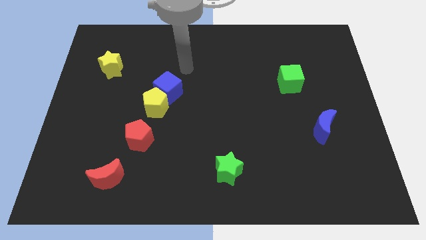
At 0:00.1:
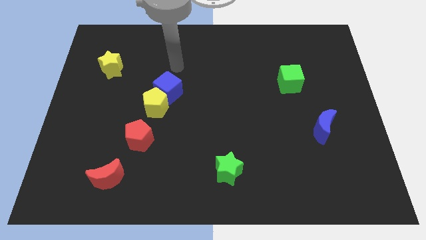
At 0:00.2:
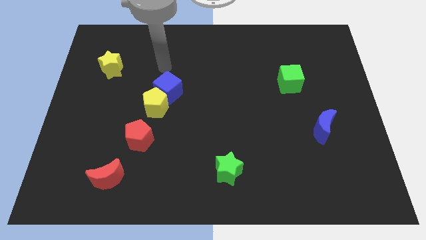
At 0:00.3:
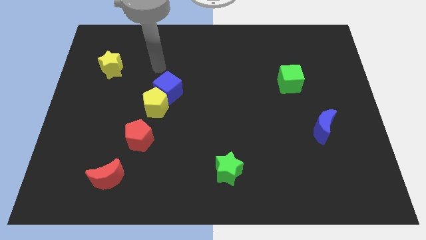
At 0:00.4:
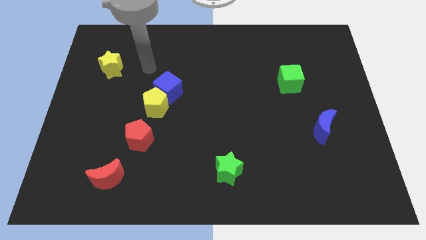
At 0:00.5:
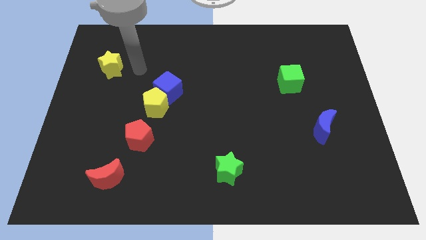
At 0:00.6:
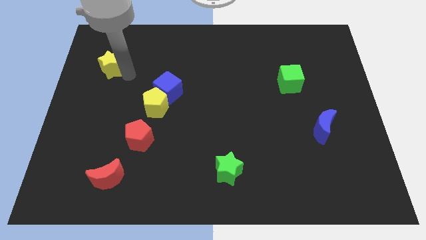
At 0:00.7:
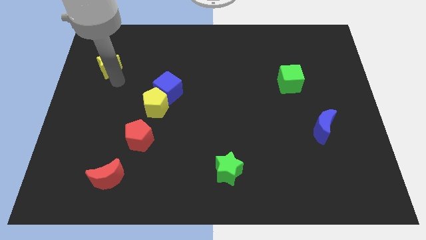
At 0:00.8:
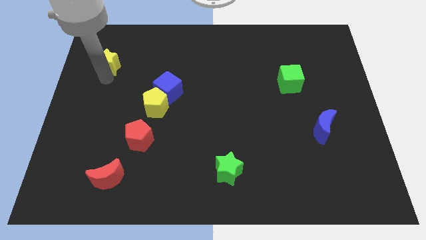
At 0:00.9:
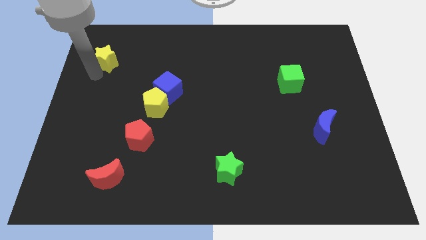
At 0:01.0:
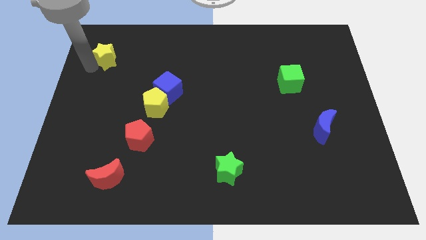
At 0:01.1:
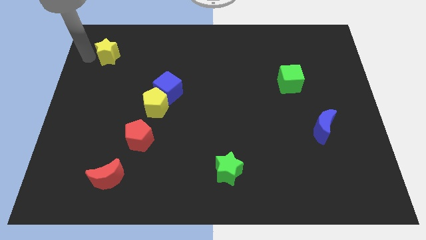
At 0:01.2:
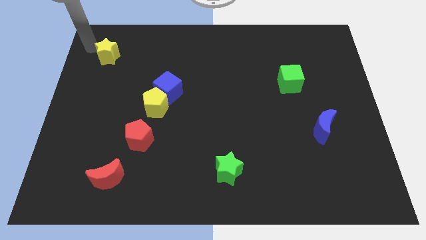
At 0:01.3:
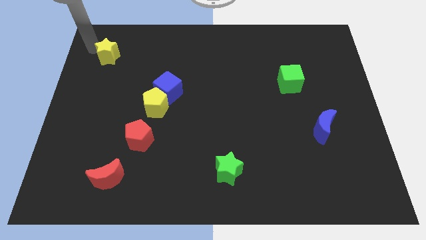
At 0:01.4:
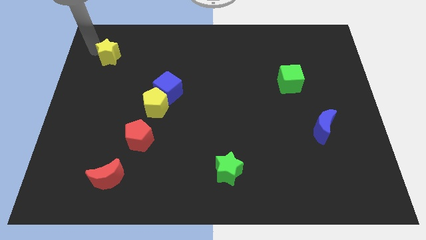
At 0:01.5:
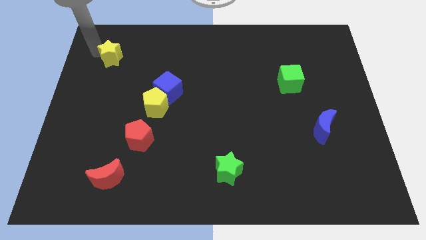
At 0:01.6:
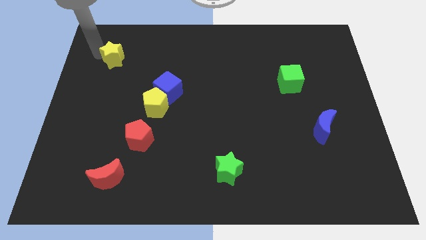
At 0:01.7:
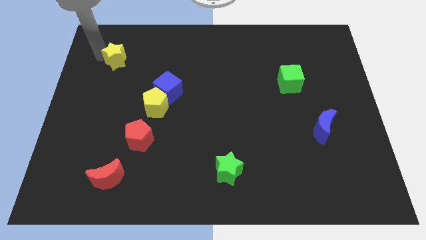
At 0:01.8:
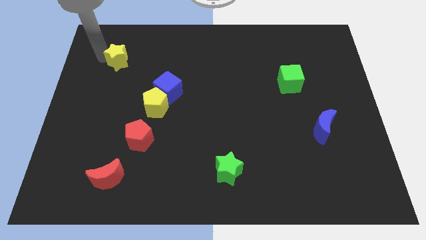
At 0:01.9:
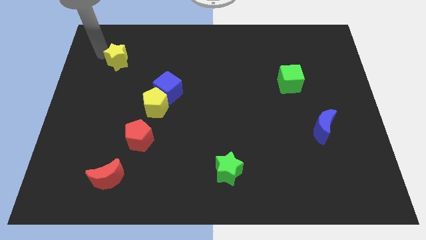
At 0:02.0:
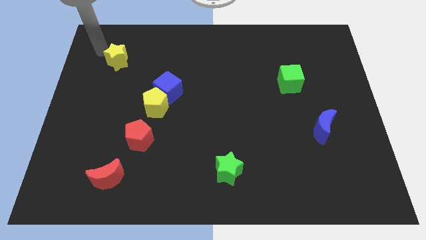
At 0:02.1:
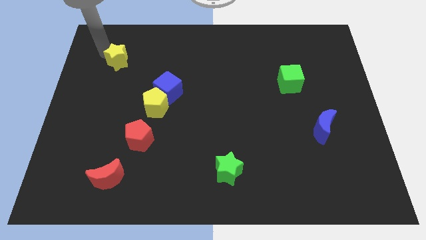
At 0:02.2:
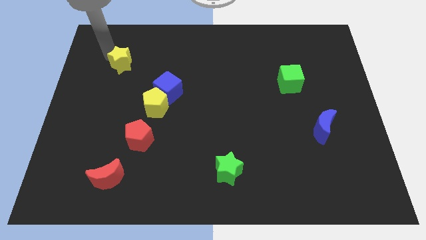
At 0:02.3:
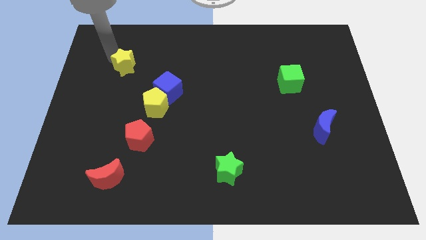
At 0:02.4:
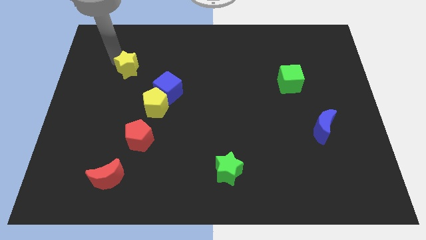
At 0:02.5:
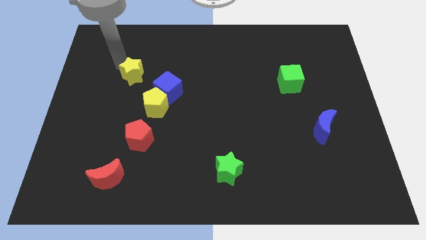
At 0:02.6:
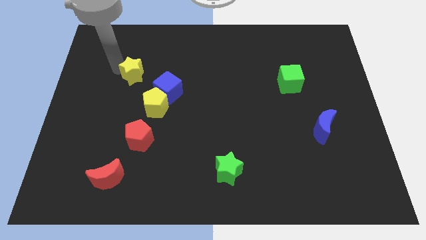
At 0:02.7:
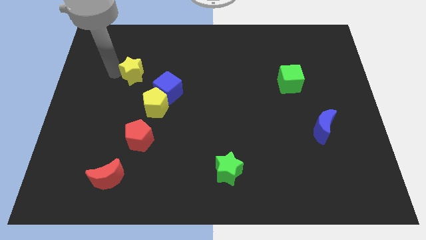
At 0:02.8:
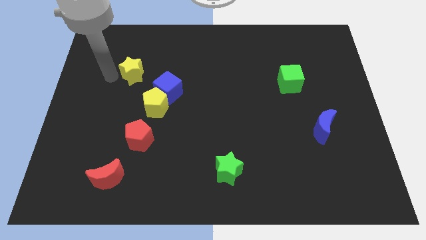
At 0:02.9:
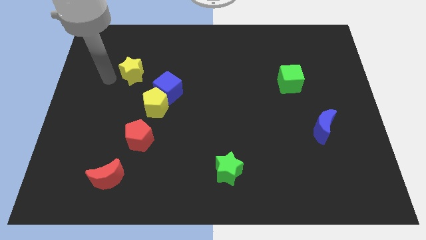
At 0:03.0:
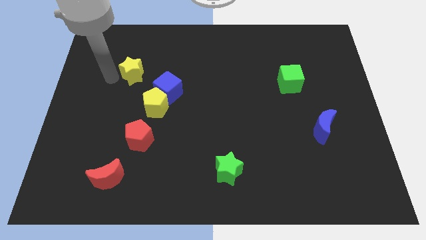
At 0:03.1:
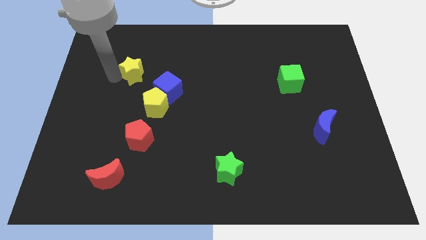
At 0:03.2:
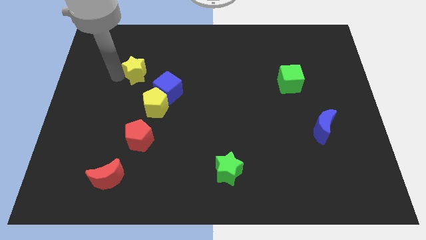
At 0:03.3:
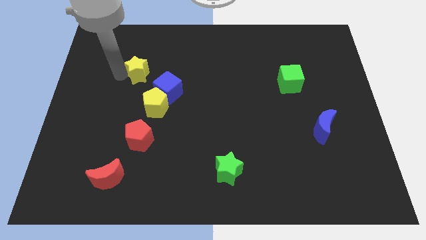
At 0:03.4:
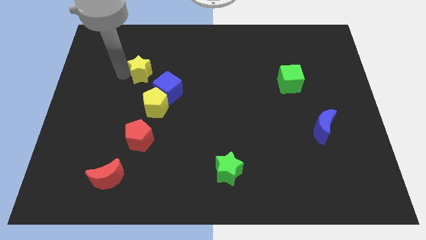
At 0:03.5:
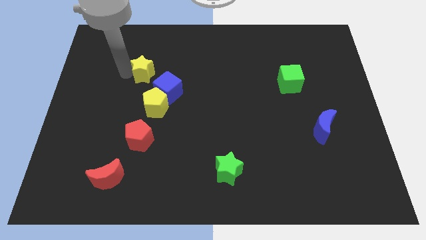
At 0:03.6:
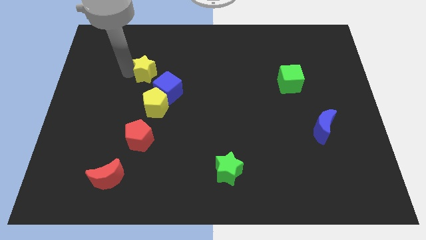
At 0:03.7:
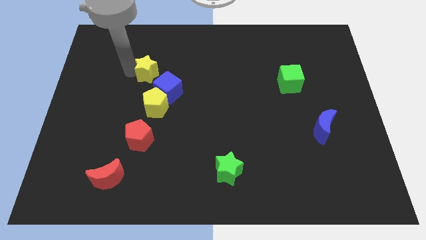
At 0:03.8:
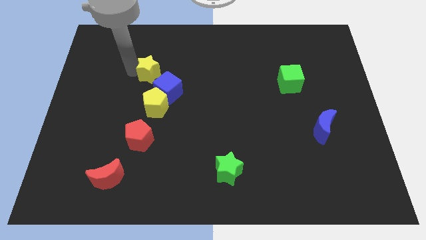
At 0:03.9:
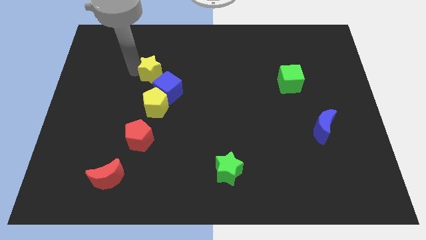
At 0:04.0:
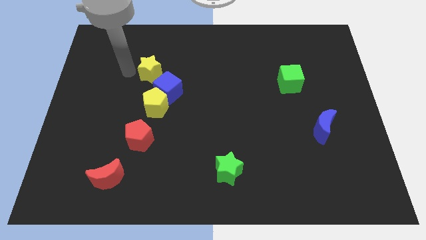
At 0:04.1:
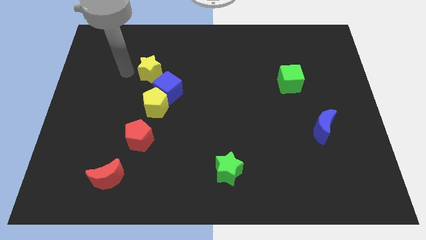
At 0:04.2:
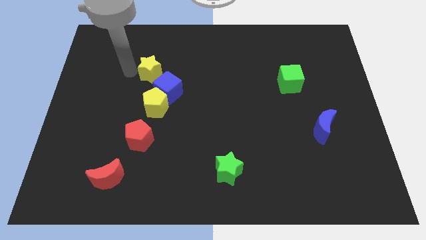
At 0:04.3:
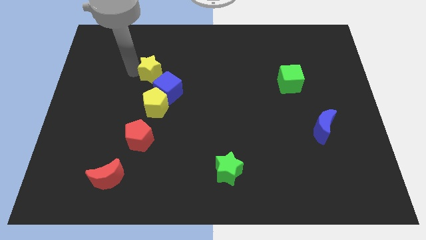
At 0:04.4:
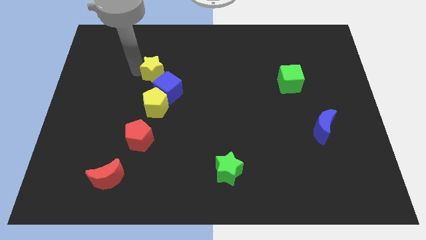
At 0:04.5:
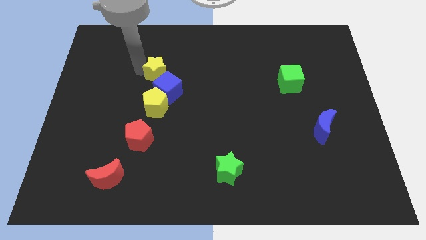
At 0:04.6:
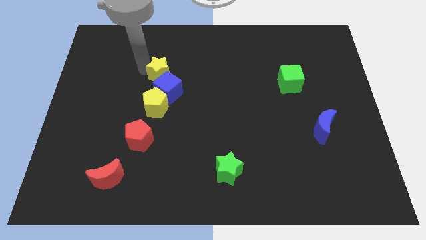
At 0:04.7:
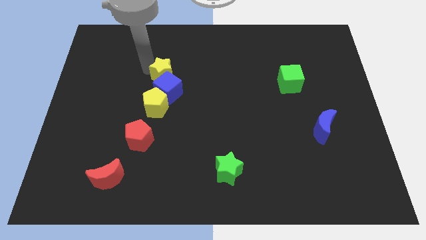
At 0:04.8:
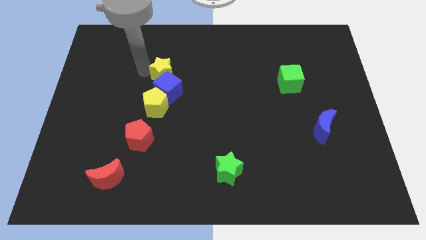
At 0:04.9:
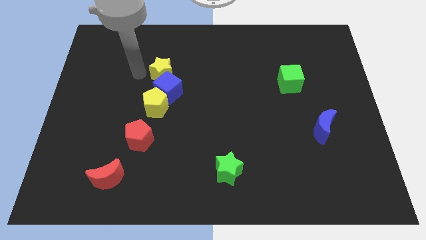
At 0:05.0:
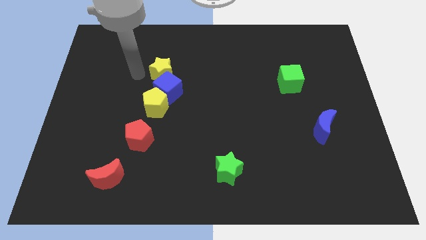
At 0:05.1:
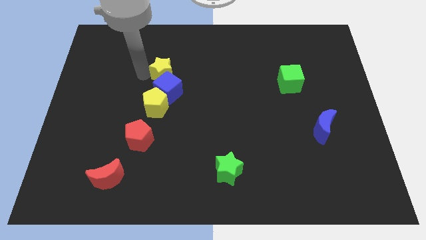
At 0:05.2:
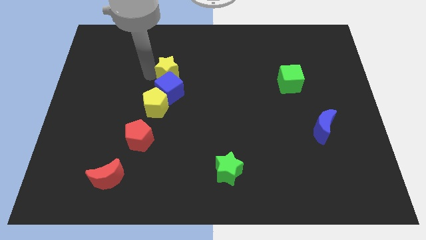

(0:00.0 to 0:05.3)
push the yellow star diagonally up and to the right of the blue cube
